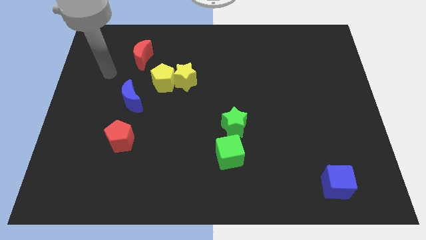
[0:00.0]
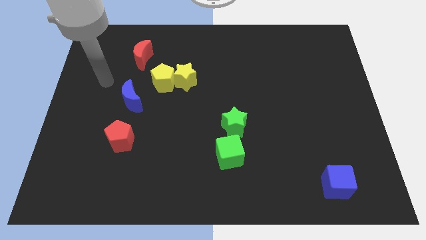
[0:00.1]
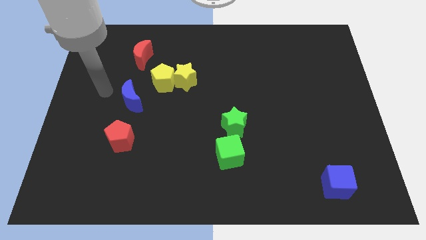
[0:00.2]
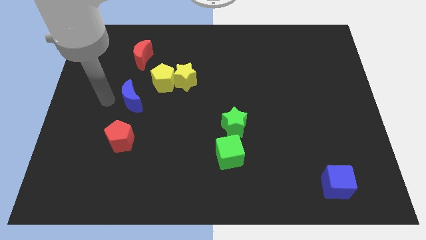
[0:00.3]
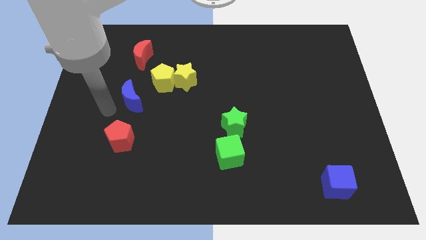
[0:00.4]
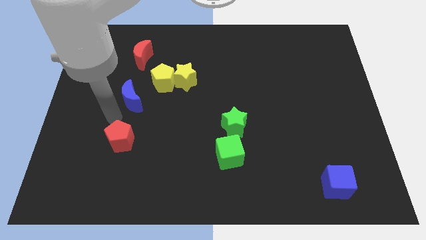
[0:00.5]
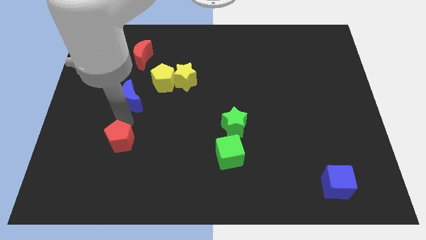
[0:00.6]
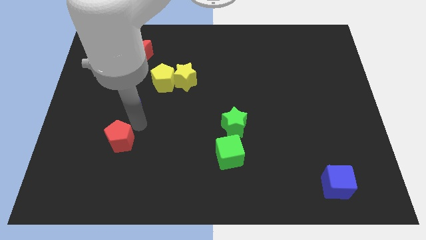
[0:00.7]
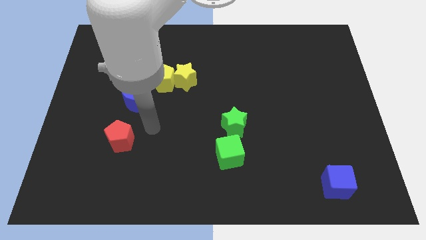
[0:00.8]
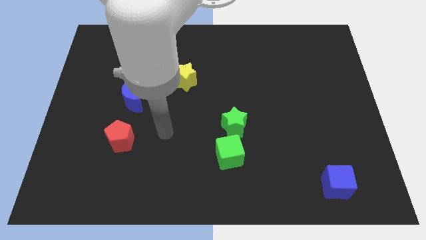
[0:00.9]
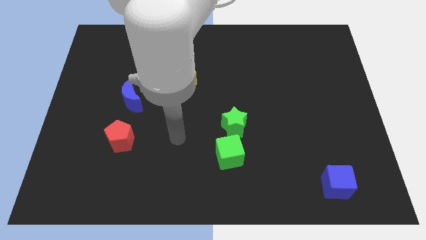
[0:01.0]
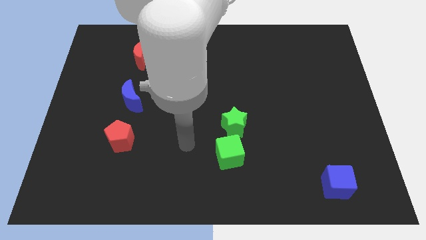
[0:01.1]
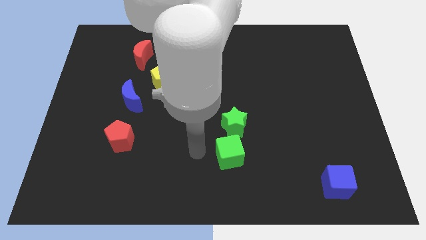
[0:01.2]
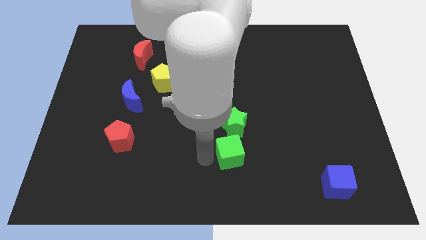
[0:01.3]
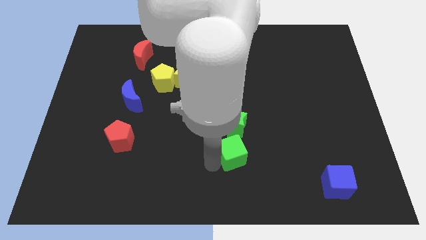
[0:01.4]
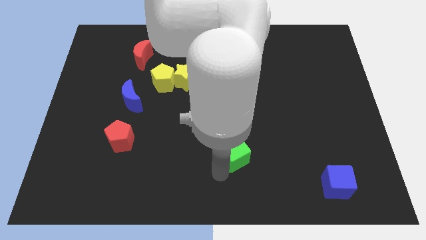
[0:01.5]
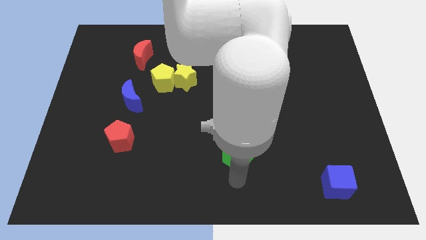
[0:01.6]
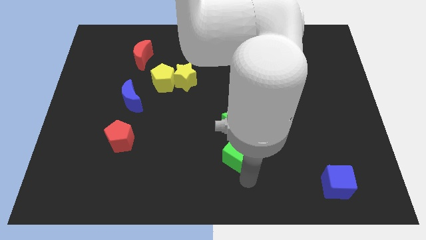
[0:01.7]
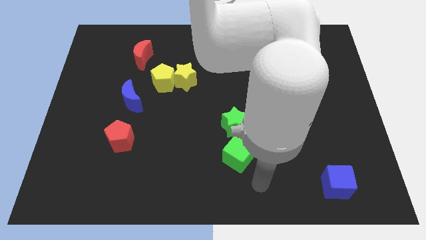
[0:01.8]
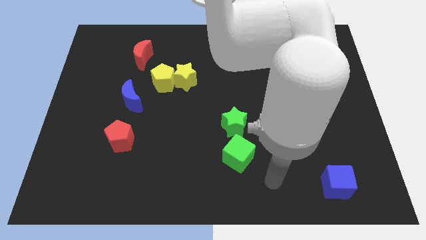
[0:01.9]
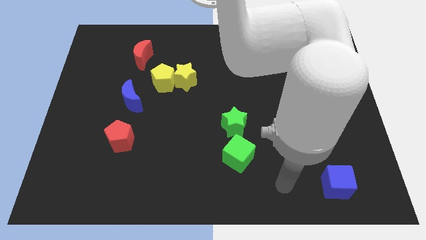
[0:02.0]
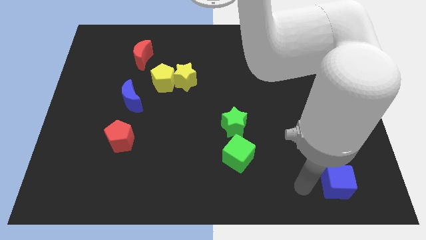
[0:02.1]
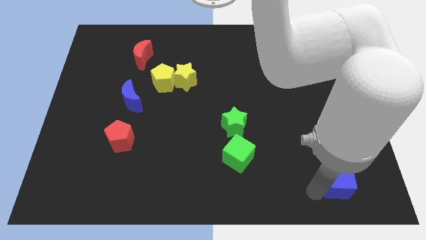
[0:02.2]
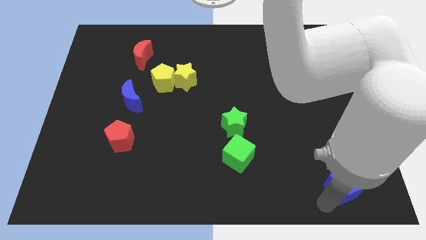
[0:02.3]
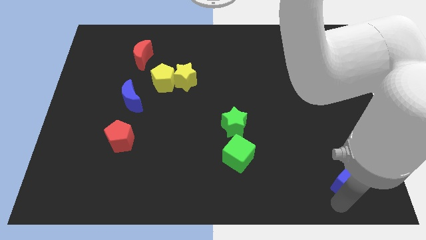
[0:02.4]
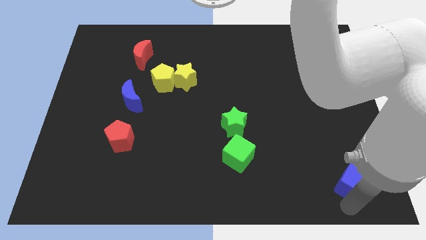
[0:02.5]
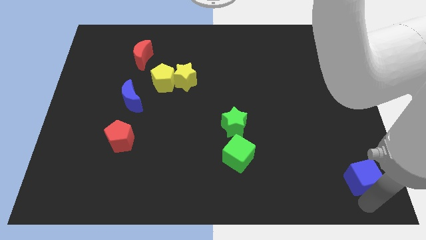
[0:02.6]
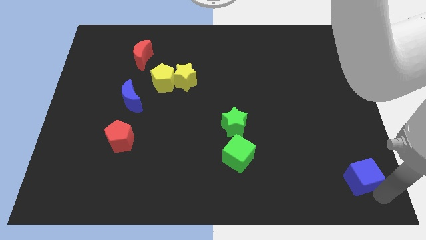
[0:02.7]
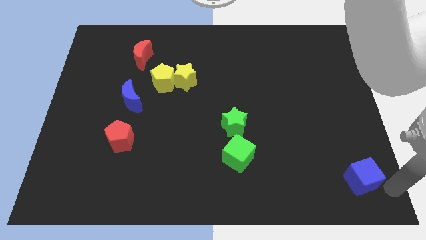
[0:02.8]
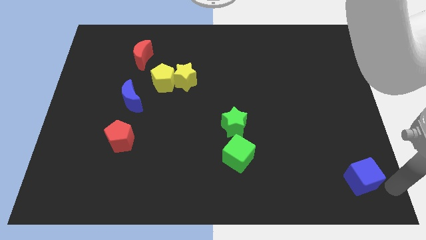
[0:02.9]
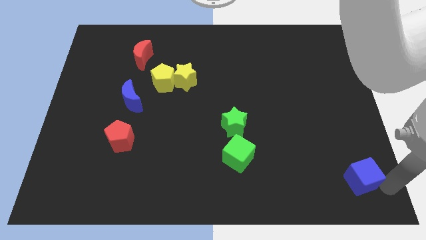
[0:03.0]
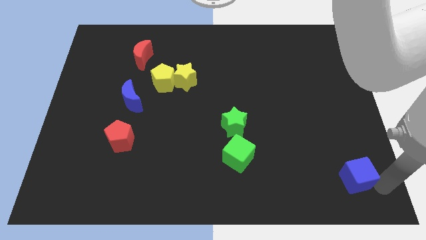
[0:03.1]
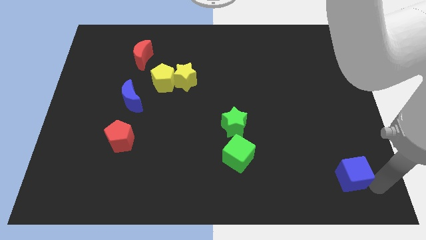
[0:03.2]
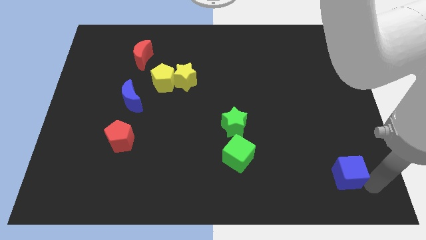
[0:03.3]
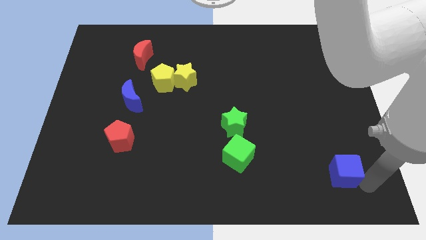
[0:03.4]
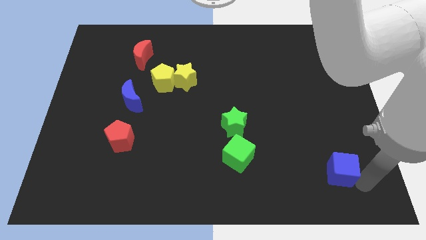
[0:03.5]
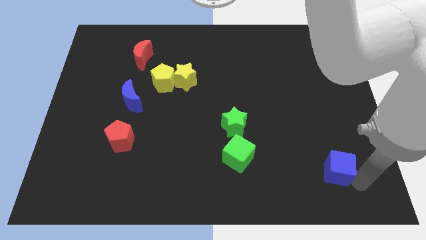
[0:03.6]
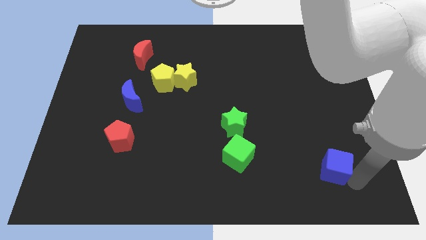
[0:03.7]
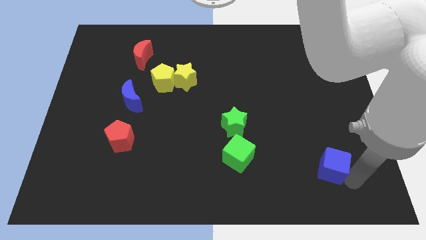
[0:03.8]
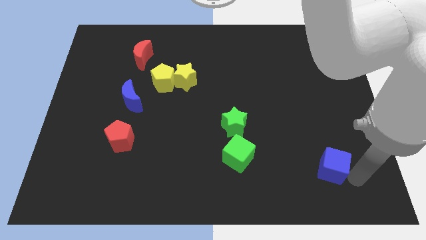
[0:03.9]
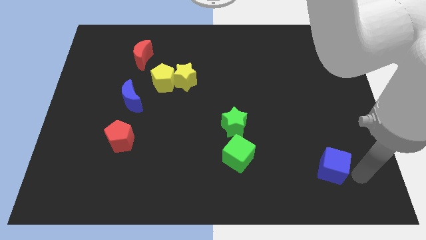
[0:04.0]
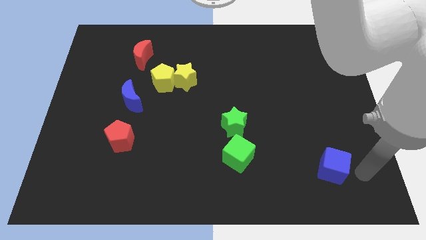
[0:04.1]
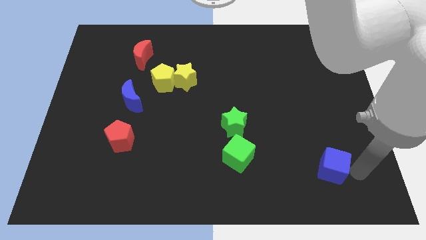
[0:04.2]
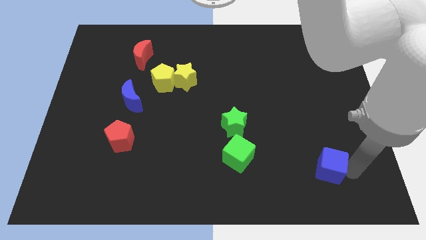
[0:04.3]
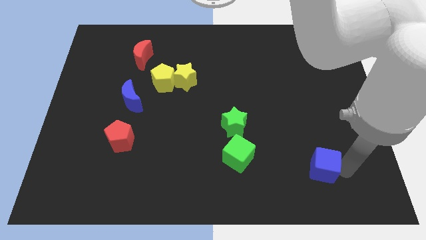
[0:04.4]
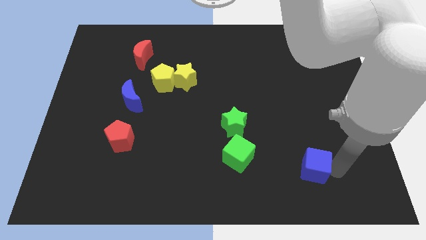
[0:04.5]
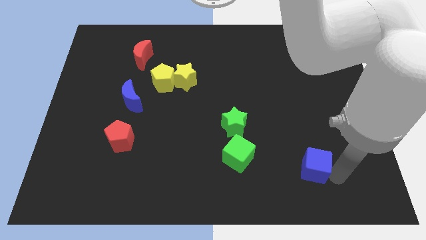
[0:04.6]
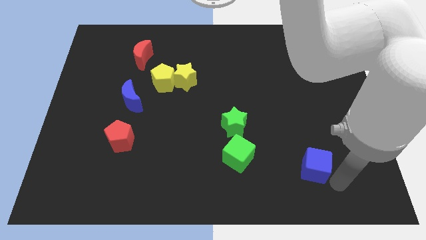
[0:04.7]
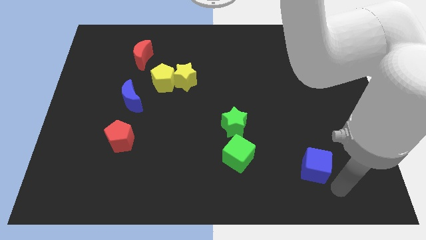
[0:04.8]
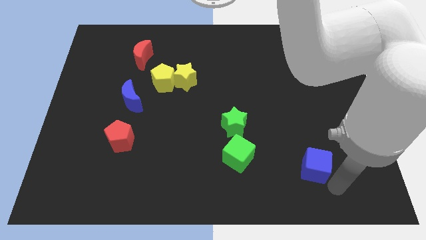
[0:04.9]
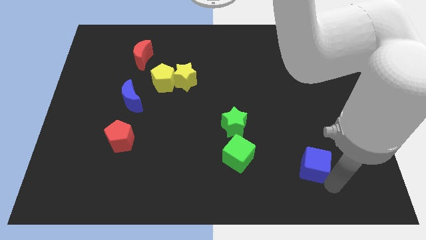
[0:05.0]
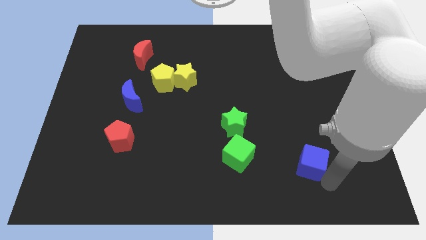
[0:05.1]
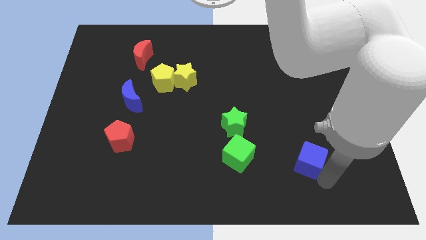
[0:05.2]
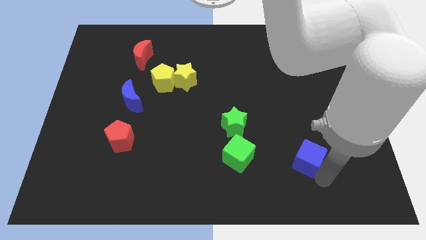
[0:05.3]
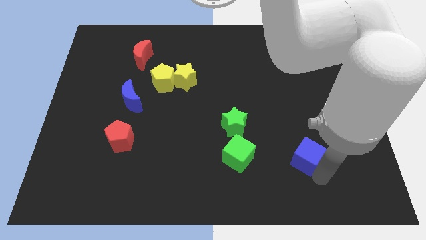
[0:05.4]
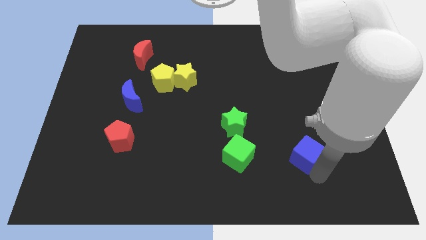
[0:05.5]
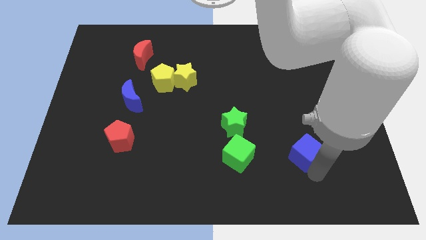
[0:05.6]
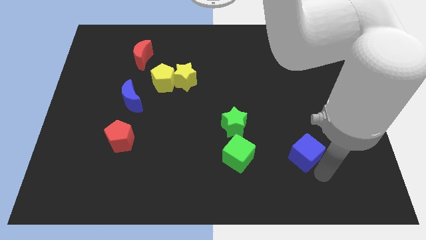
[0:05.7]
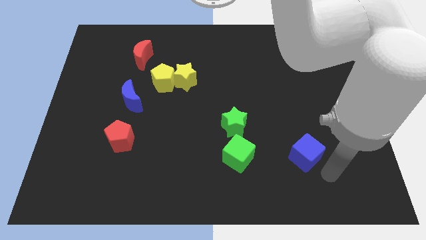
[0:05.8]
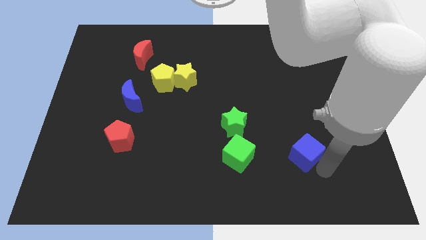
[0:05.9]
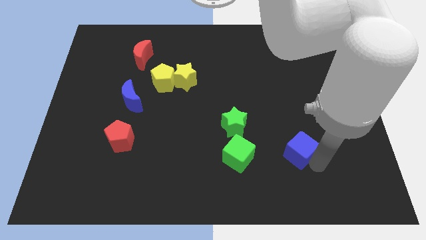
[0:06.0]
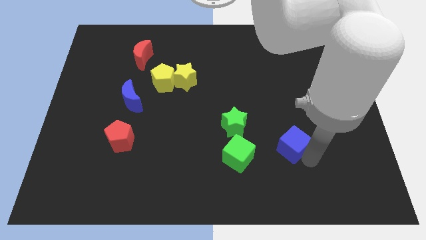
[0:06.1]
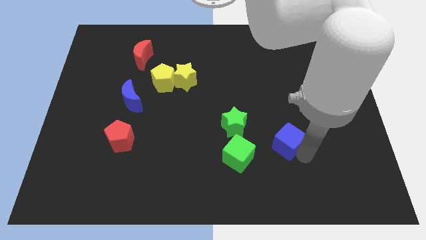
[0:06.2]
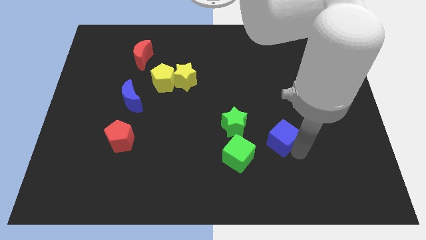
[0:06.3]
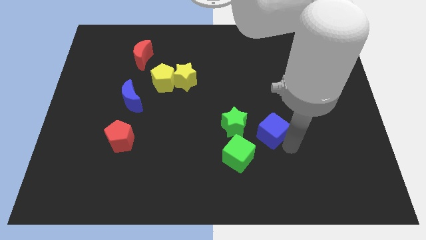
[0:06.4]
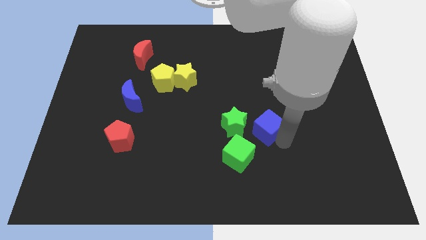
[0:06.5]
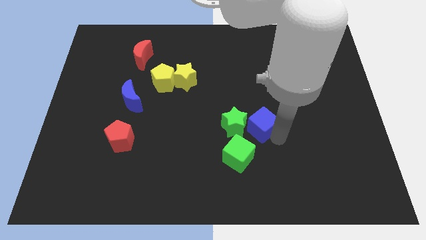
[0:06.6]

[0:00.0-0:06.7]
push the blue cube upwards and left diagonally

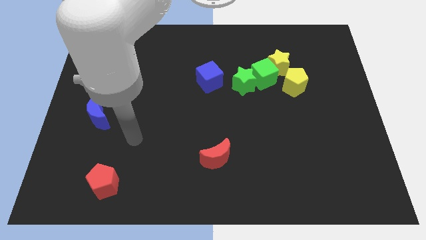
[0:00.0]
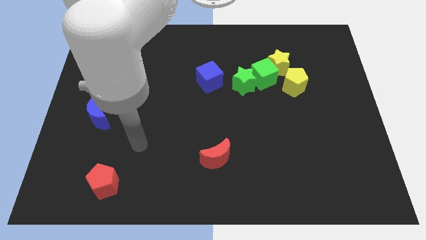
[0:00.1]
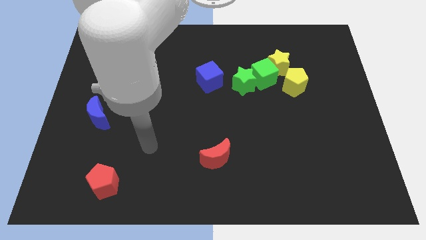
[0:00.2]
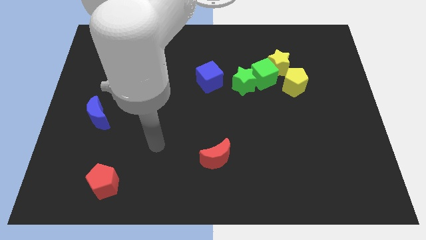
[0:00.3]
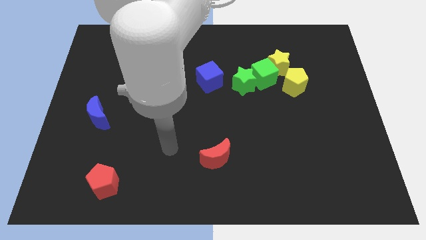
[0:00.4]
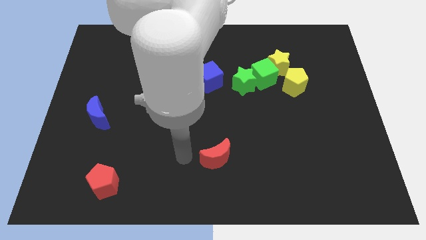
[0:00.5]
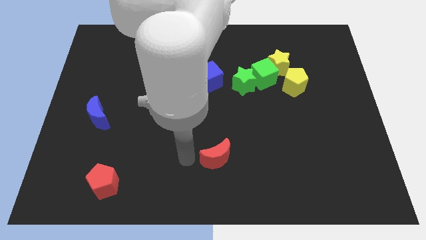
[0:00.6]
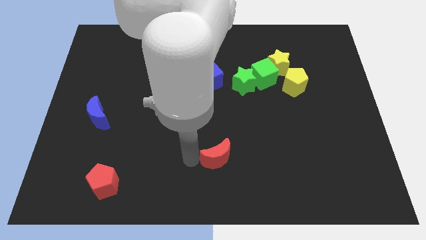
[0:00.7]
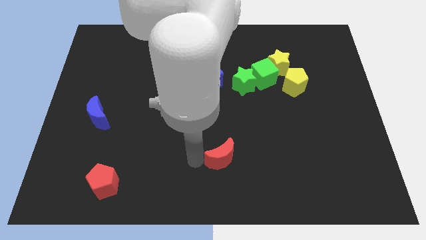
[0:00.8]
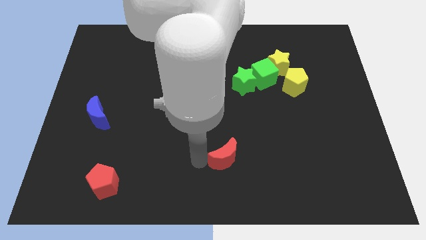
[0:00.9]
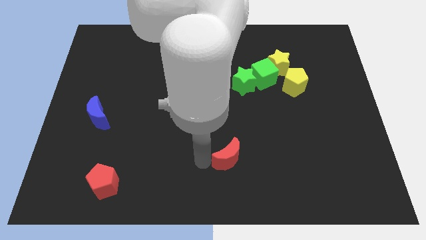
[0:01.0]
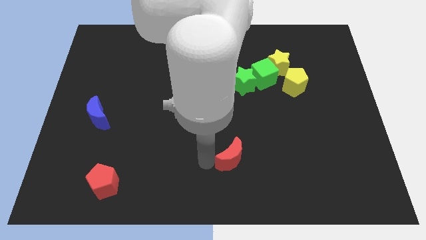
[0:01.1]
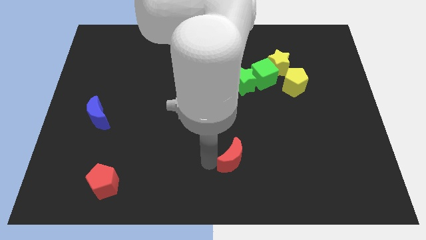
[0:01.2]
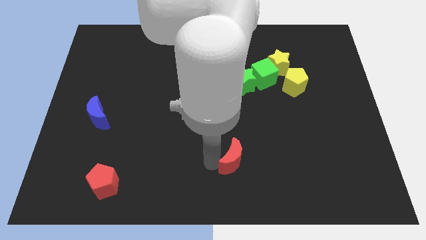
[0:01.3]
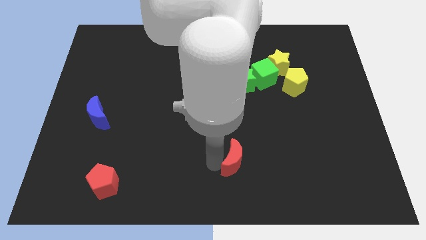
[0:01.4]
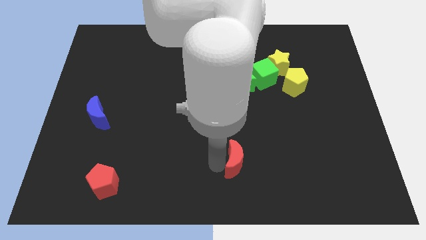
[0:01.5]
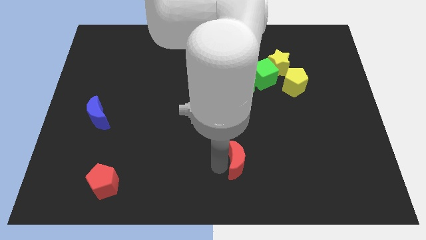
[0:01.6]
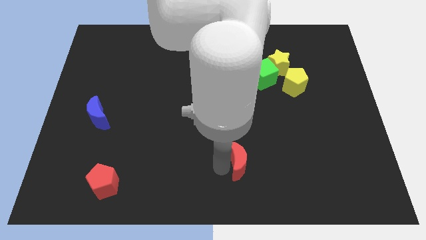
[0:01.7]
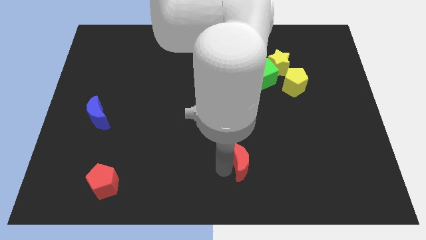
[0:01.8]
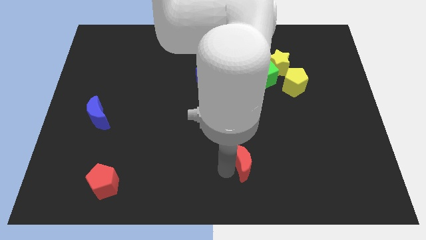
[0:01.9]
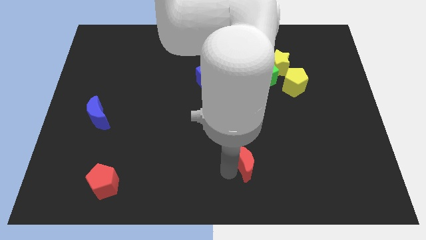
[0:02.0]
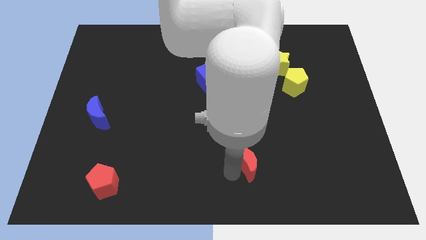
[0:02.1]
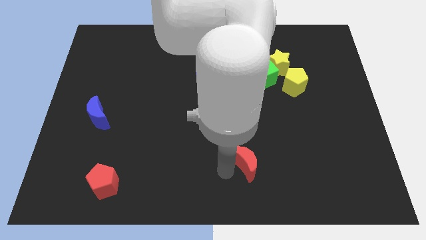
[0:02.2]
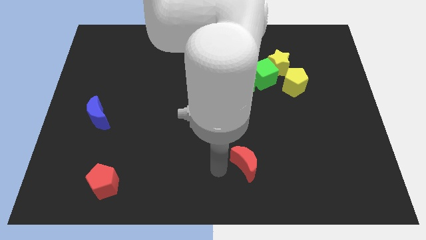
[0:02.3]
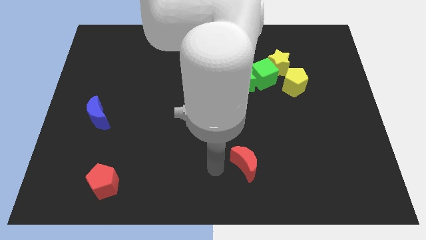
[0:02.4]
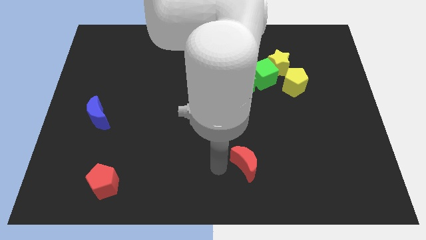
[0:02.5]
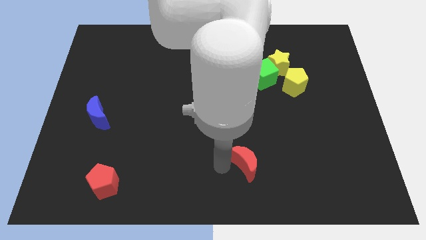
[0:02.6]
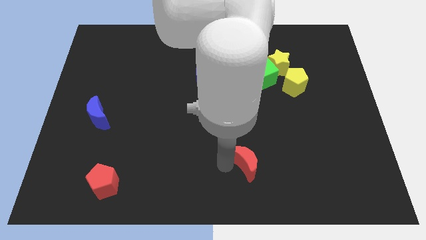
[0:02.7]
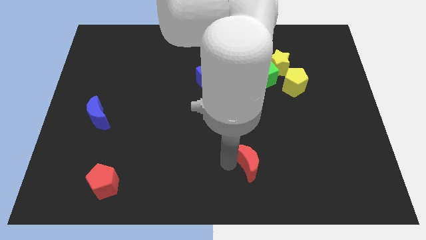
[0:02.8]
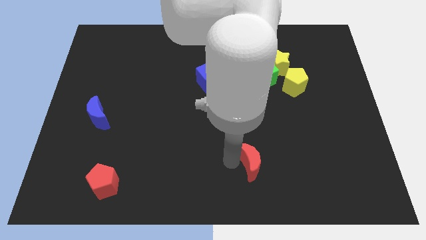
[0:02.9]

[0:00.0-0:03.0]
slightly slide the red moon to the right
